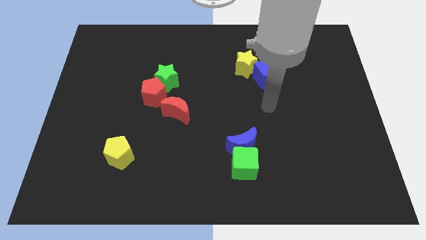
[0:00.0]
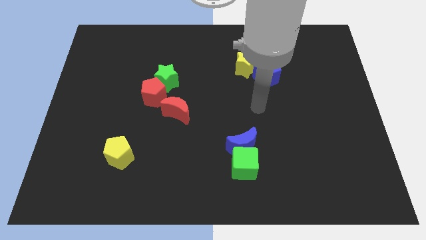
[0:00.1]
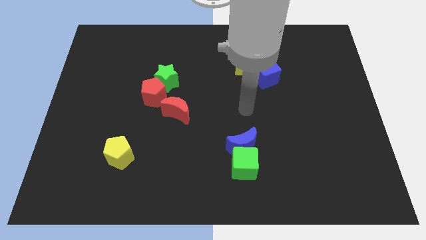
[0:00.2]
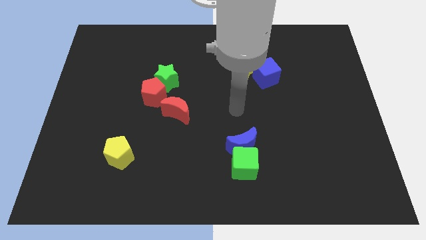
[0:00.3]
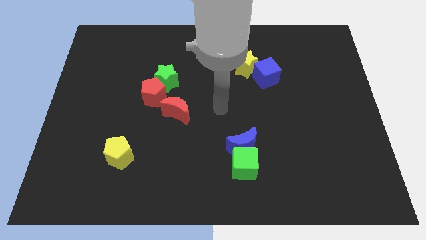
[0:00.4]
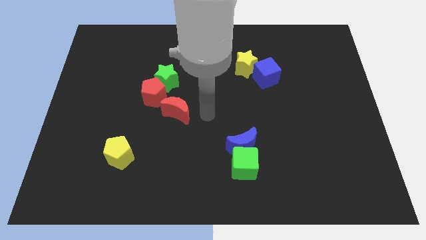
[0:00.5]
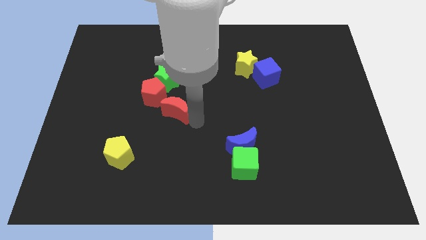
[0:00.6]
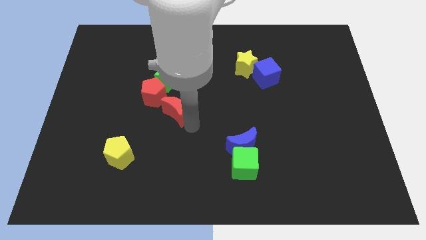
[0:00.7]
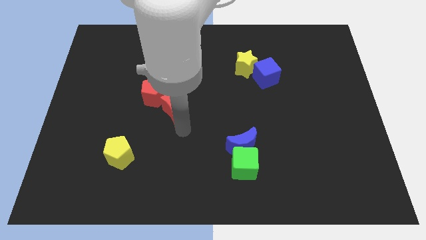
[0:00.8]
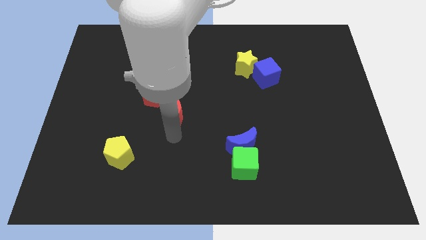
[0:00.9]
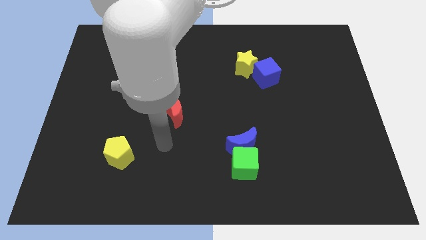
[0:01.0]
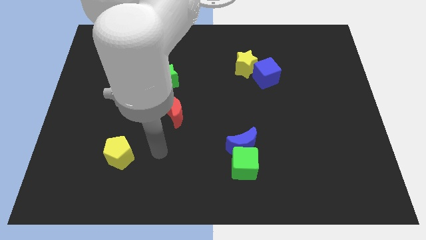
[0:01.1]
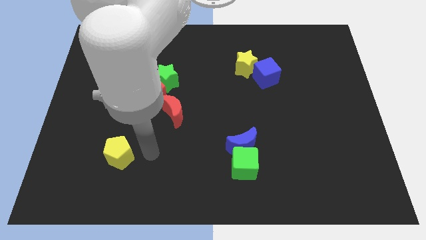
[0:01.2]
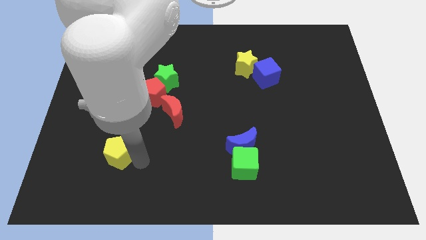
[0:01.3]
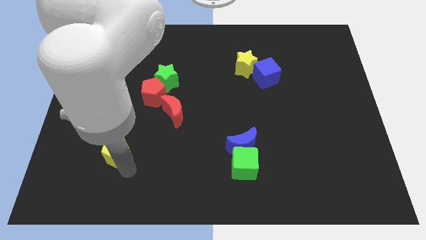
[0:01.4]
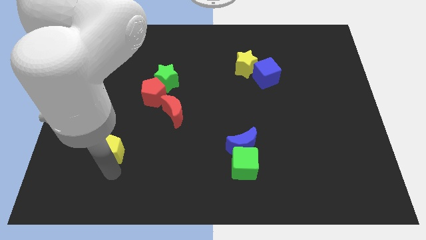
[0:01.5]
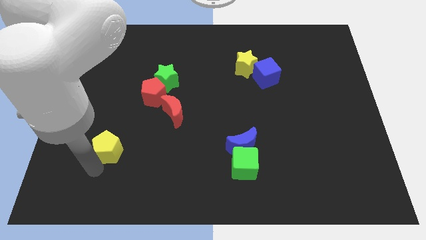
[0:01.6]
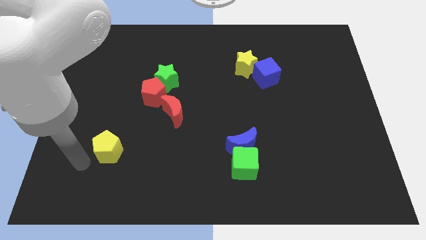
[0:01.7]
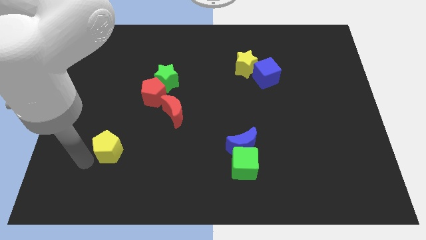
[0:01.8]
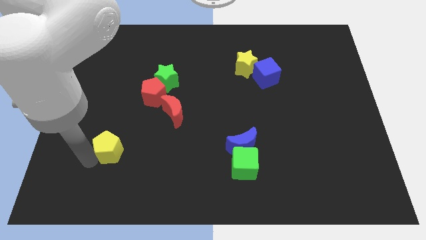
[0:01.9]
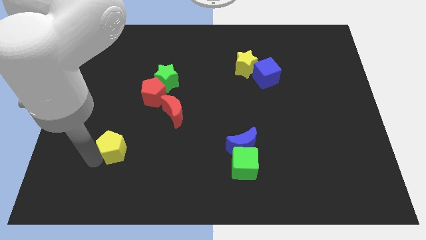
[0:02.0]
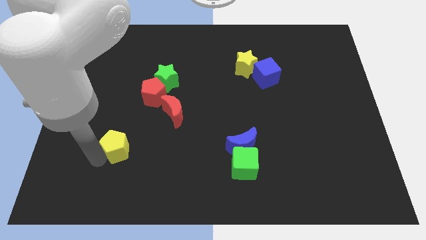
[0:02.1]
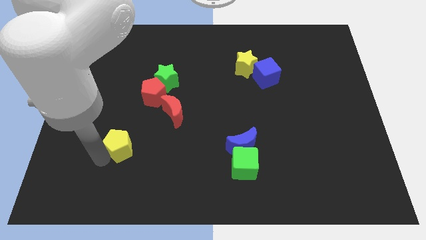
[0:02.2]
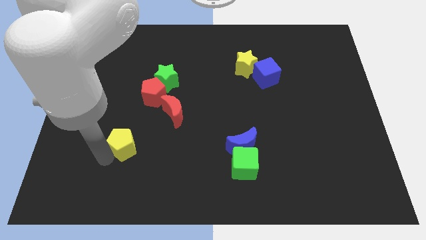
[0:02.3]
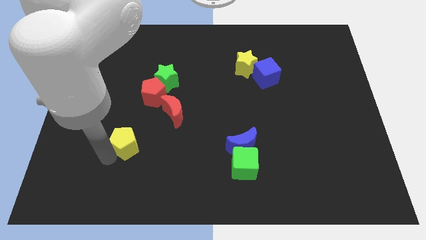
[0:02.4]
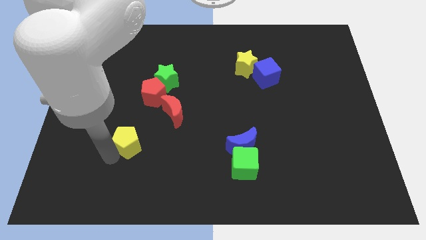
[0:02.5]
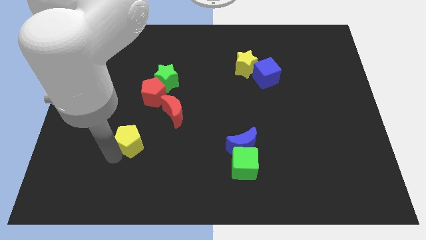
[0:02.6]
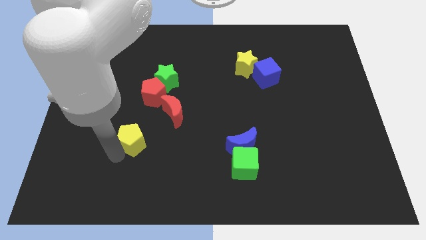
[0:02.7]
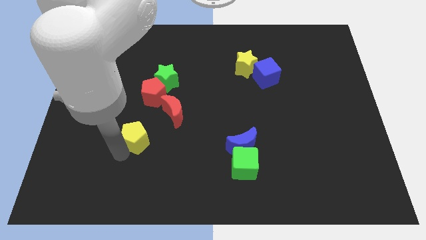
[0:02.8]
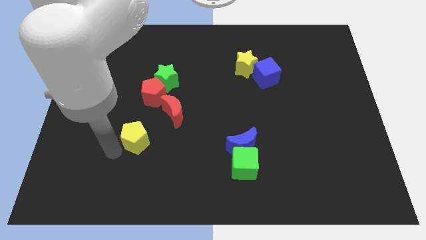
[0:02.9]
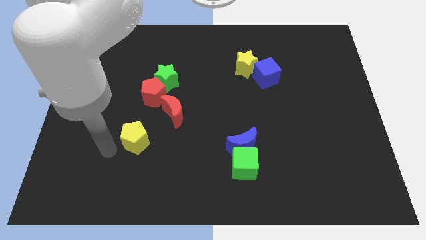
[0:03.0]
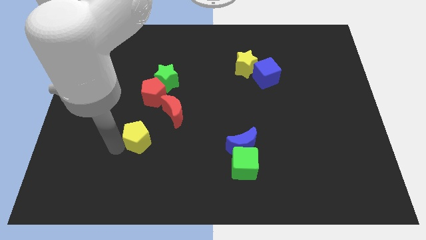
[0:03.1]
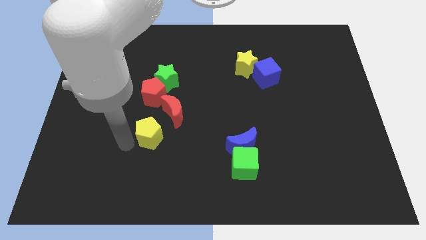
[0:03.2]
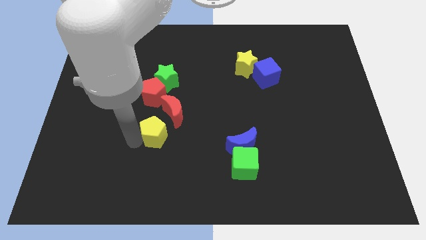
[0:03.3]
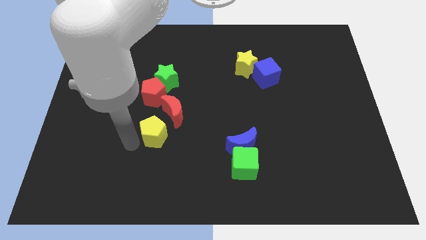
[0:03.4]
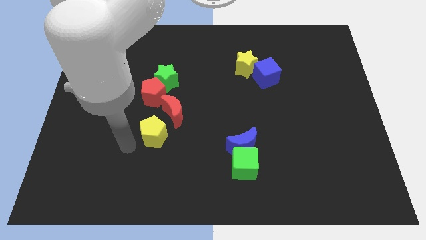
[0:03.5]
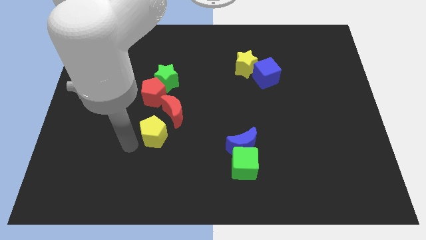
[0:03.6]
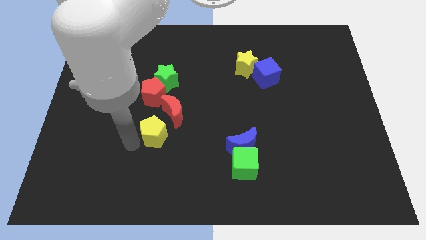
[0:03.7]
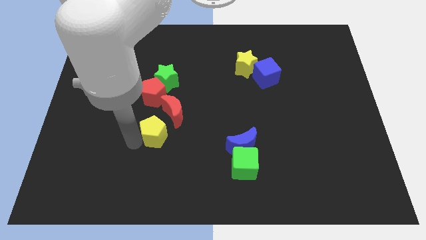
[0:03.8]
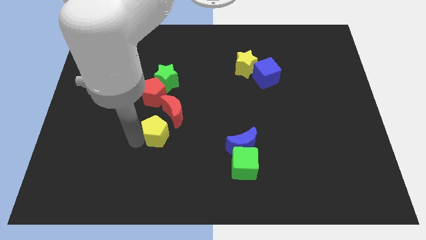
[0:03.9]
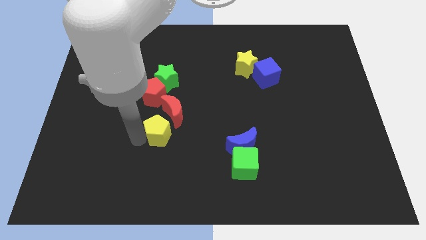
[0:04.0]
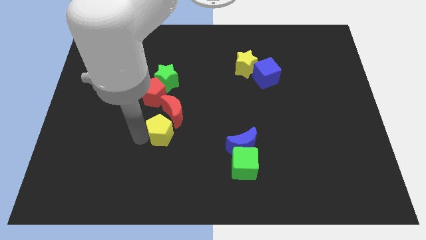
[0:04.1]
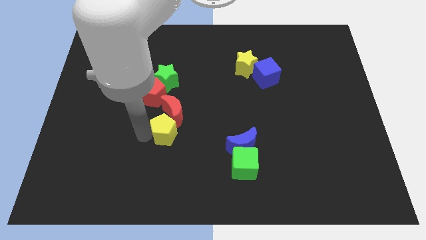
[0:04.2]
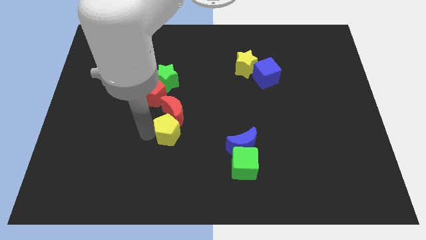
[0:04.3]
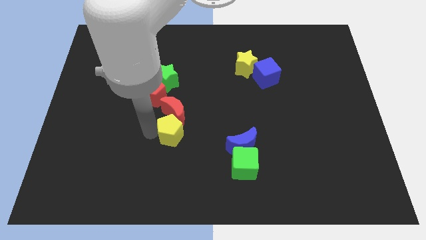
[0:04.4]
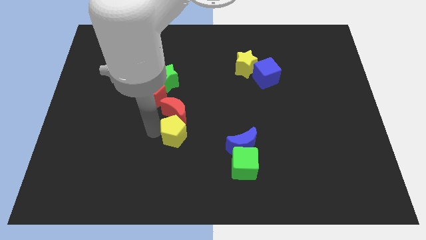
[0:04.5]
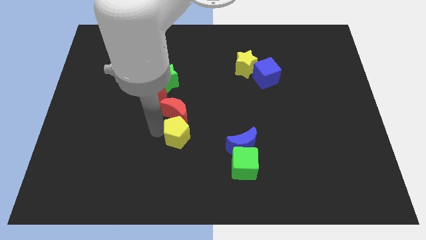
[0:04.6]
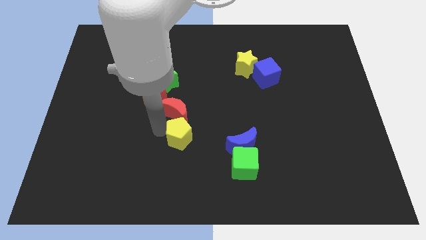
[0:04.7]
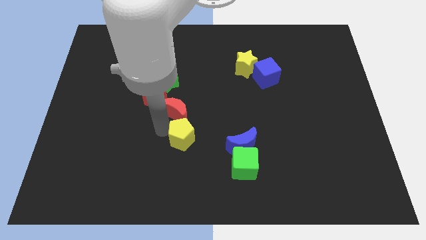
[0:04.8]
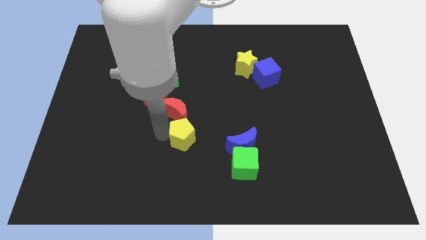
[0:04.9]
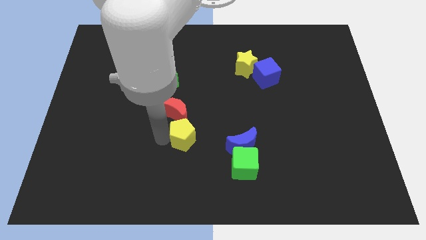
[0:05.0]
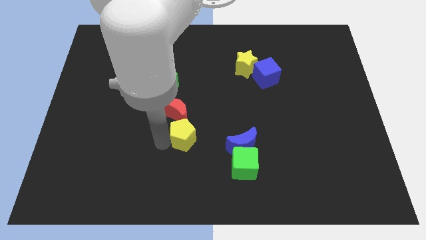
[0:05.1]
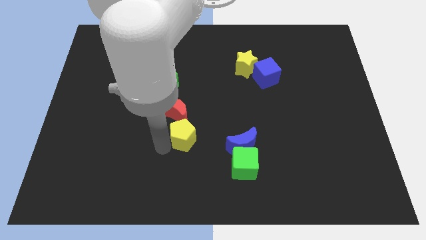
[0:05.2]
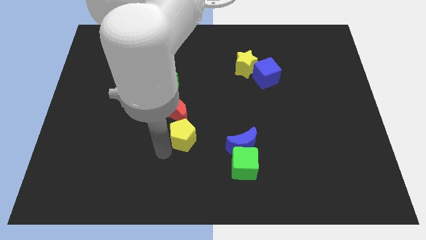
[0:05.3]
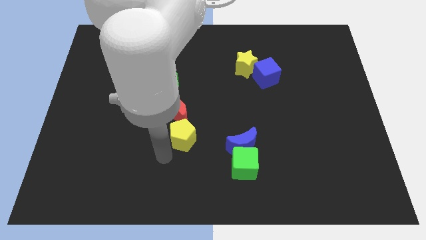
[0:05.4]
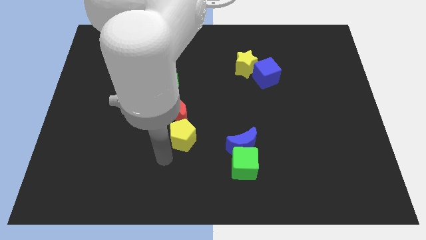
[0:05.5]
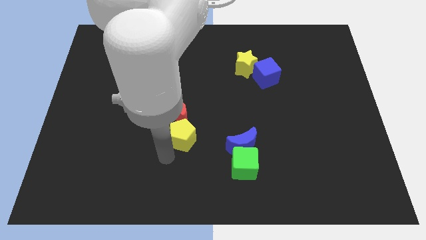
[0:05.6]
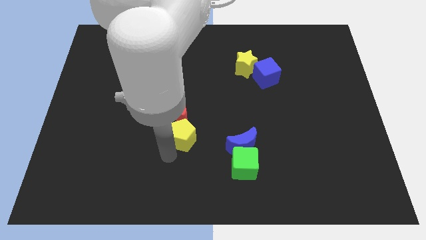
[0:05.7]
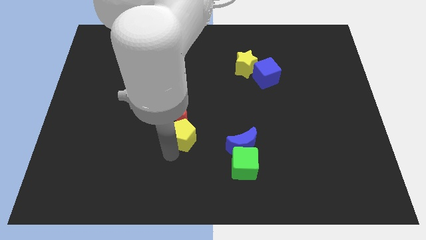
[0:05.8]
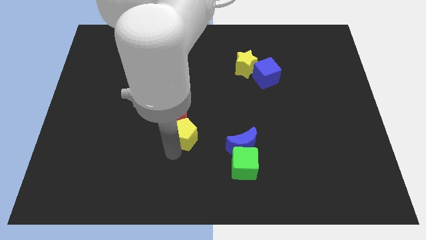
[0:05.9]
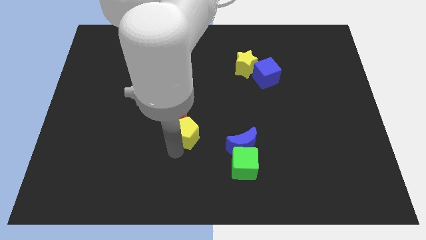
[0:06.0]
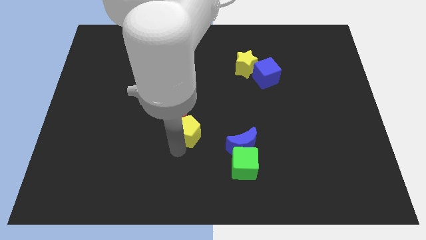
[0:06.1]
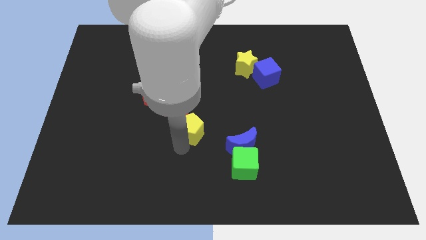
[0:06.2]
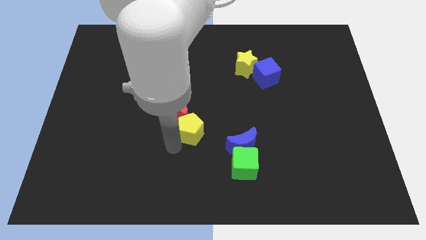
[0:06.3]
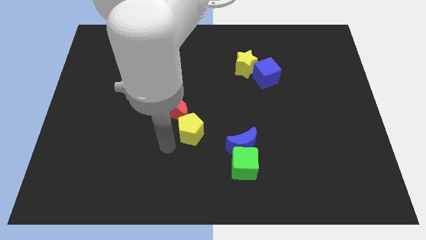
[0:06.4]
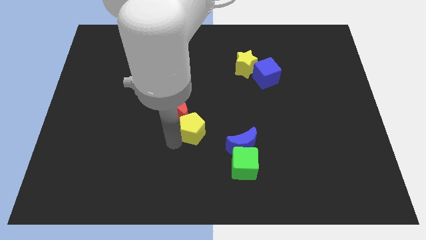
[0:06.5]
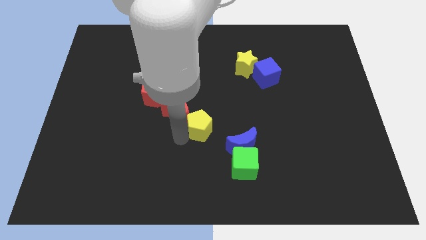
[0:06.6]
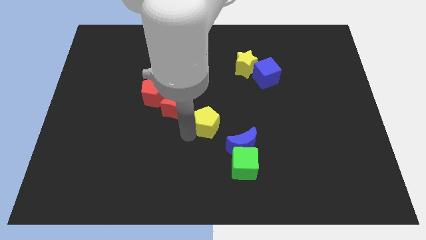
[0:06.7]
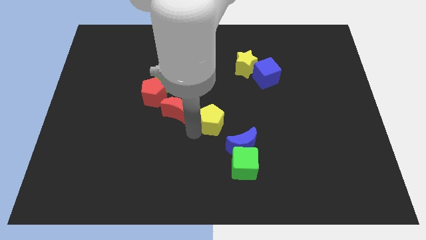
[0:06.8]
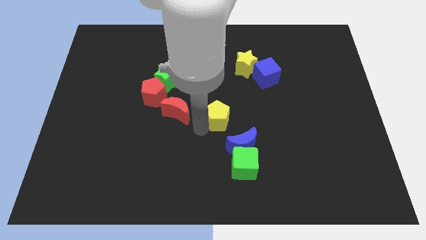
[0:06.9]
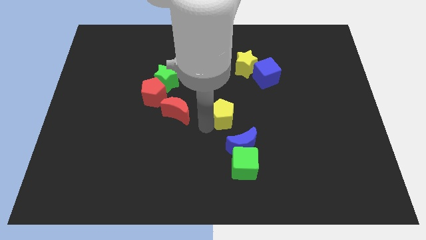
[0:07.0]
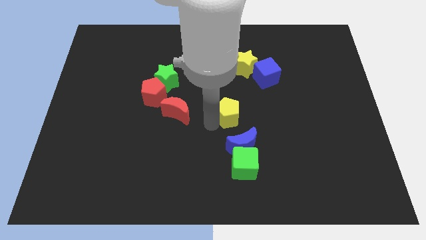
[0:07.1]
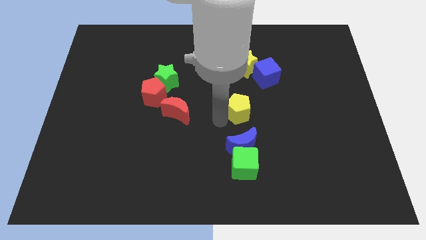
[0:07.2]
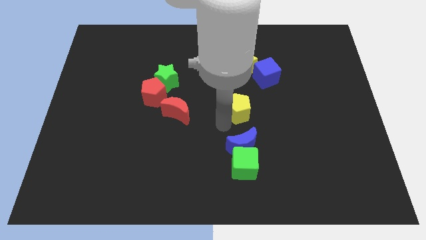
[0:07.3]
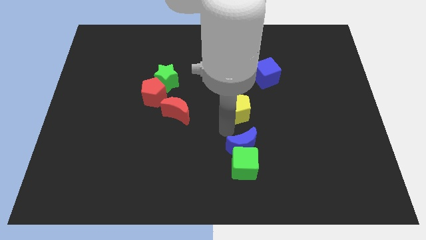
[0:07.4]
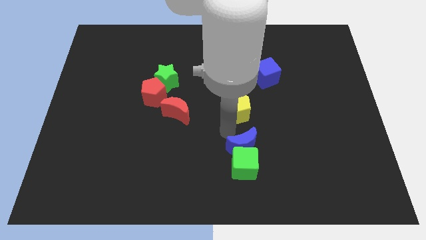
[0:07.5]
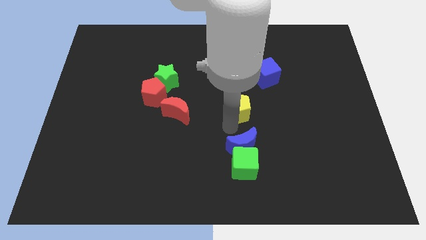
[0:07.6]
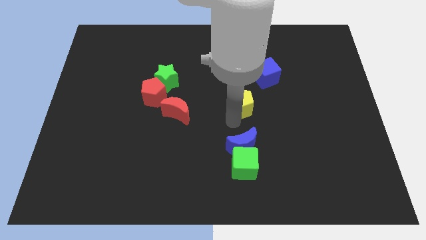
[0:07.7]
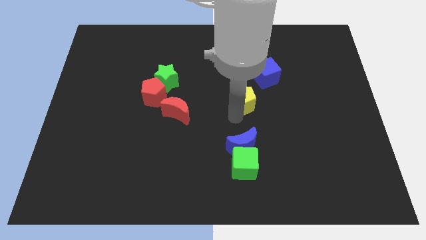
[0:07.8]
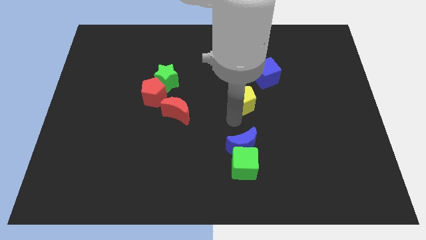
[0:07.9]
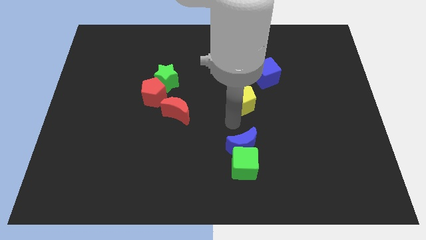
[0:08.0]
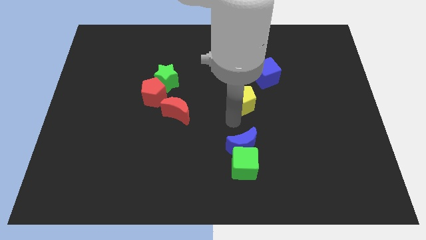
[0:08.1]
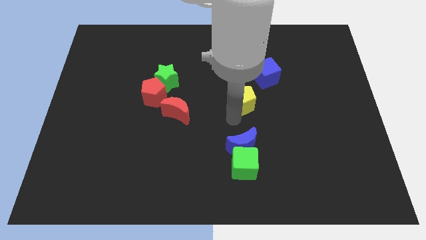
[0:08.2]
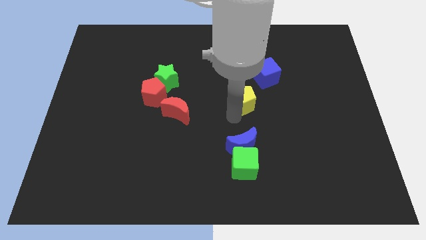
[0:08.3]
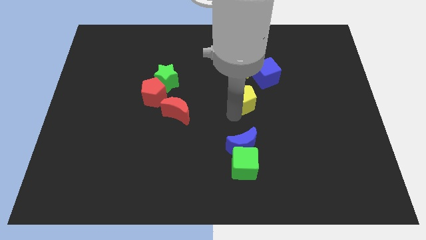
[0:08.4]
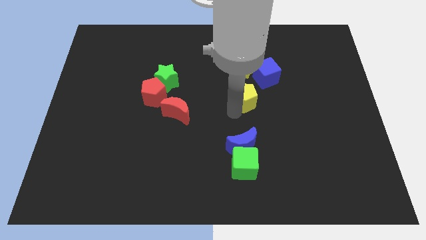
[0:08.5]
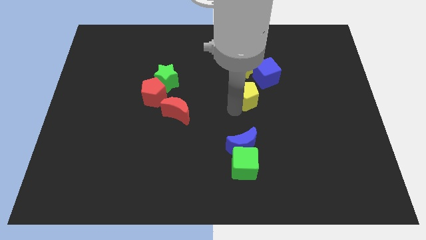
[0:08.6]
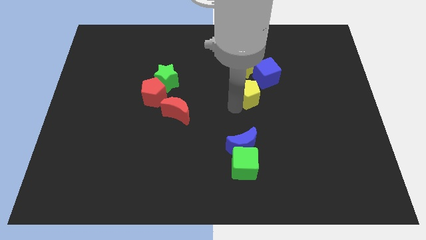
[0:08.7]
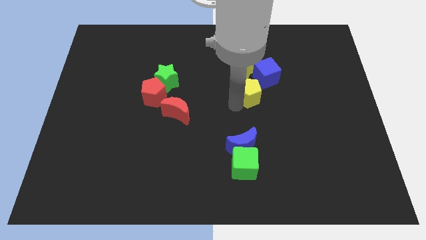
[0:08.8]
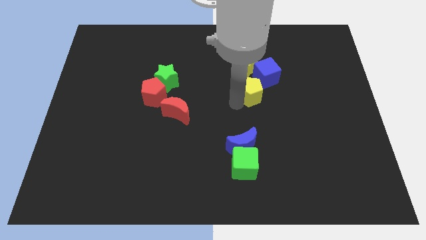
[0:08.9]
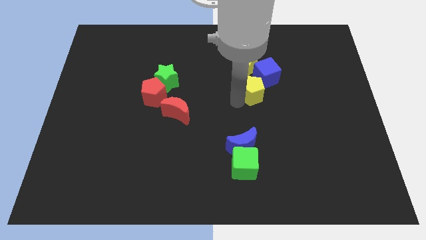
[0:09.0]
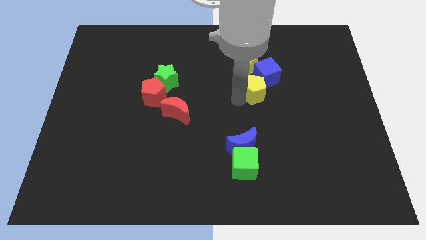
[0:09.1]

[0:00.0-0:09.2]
slide the yellow pentagon next to the blue cube
